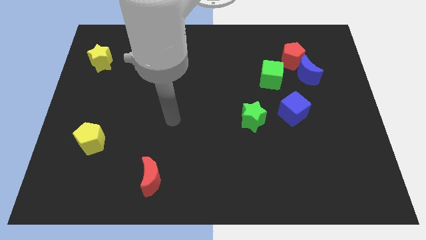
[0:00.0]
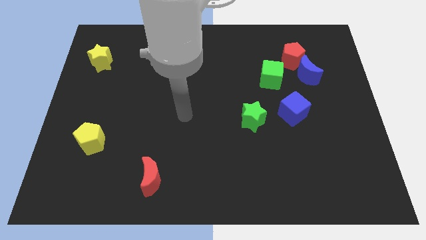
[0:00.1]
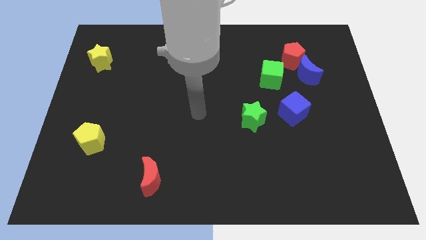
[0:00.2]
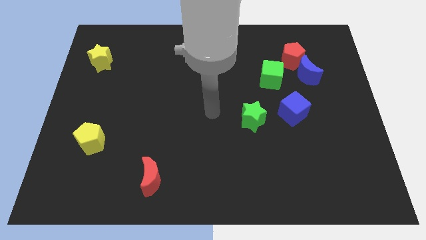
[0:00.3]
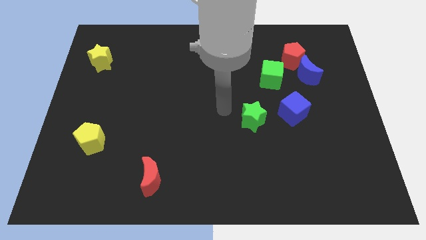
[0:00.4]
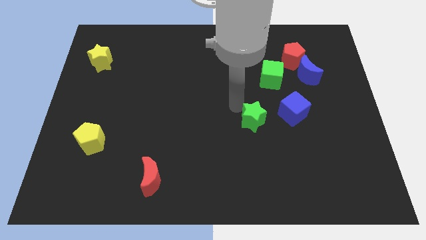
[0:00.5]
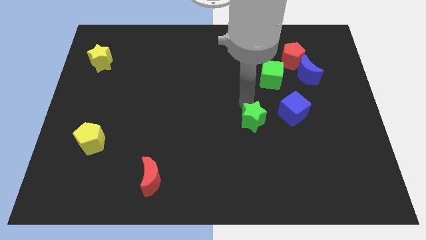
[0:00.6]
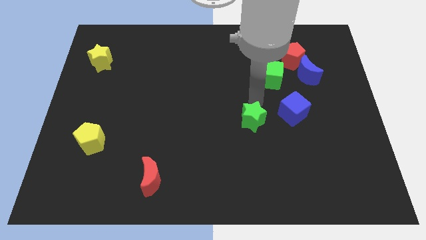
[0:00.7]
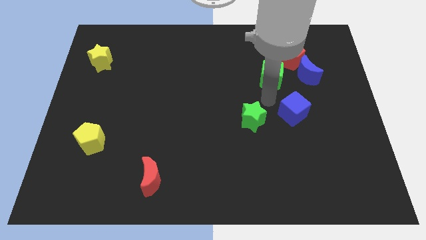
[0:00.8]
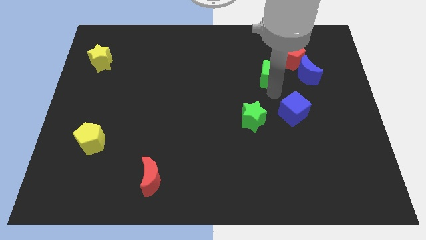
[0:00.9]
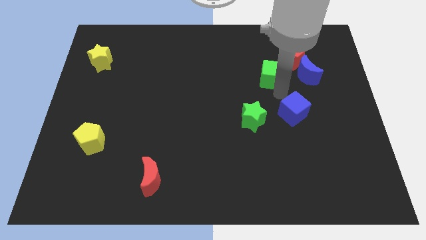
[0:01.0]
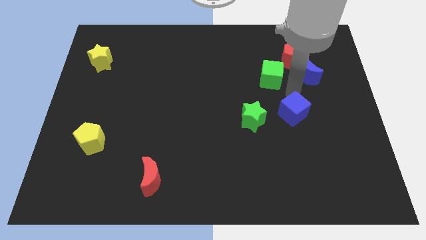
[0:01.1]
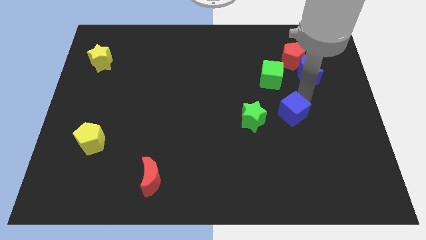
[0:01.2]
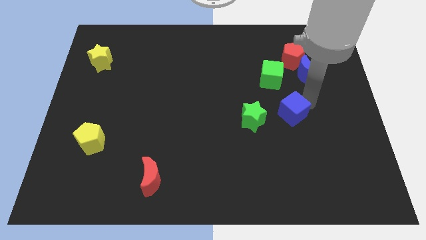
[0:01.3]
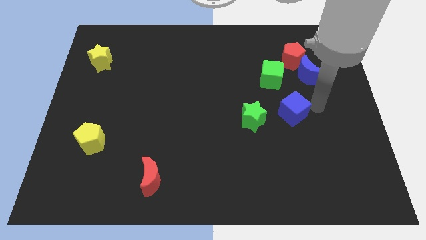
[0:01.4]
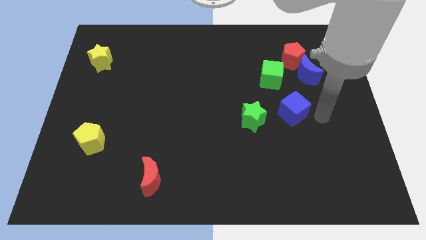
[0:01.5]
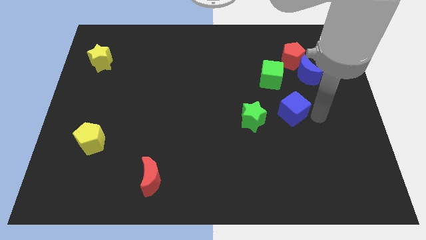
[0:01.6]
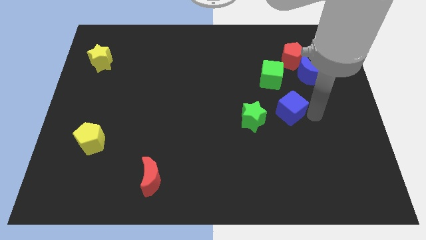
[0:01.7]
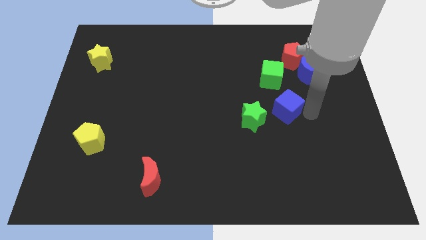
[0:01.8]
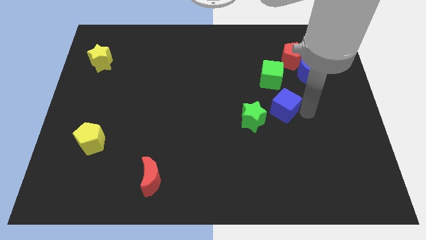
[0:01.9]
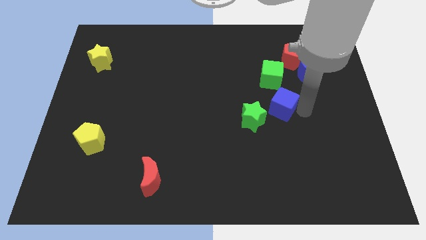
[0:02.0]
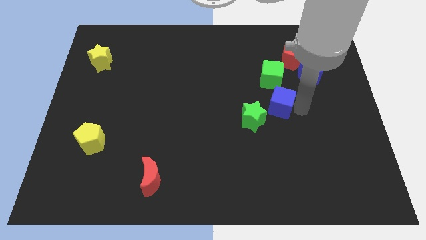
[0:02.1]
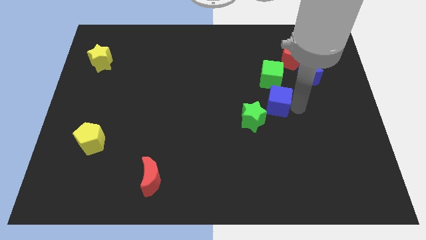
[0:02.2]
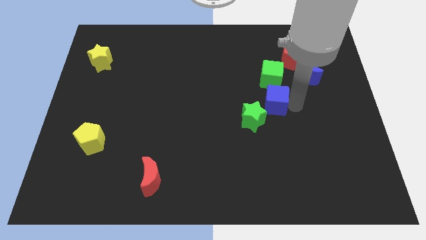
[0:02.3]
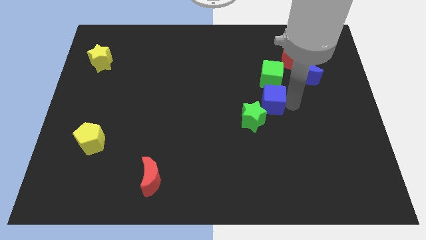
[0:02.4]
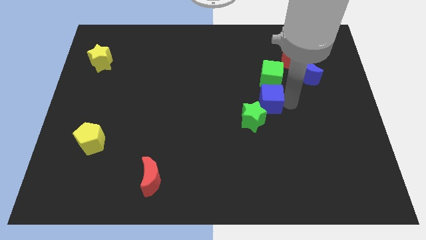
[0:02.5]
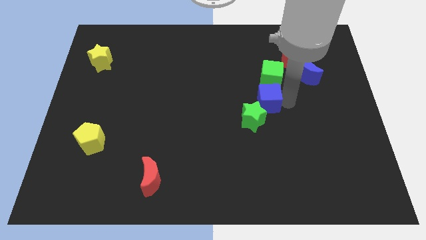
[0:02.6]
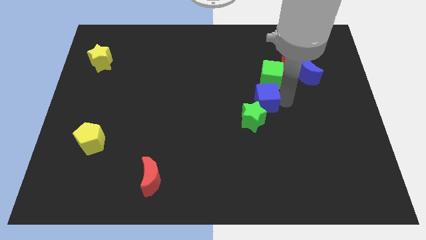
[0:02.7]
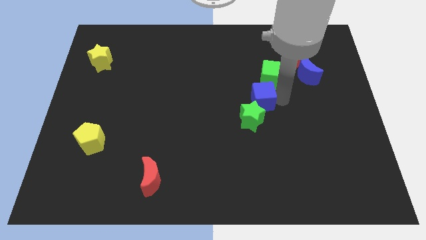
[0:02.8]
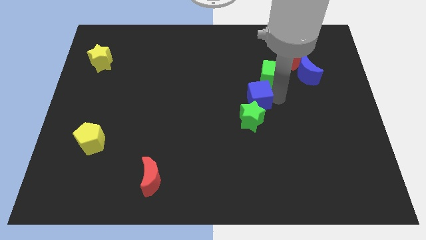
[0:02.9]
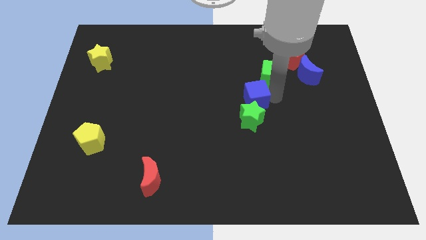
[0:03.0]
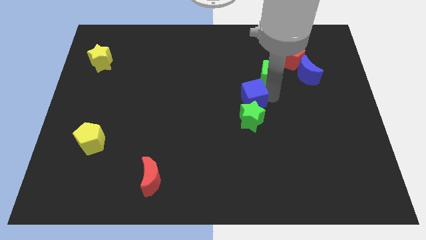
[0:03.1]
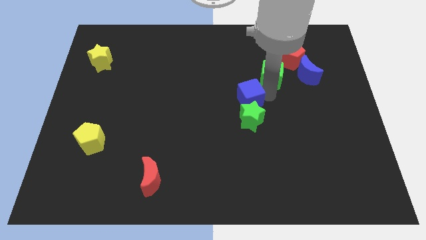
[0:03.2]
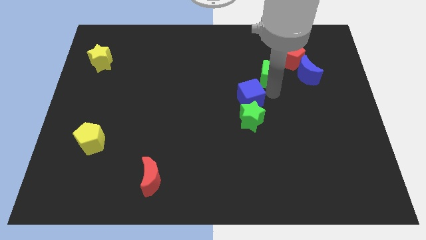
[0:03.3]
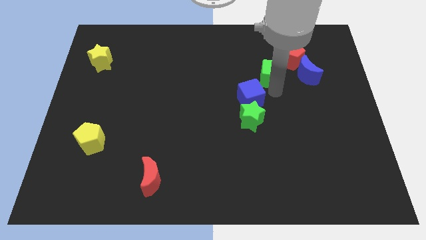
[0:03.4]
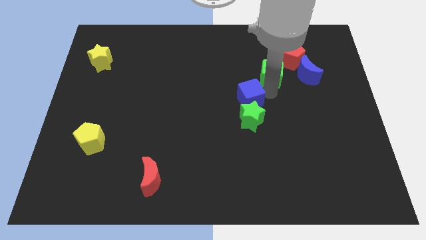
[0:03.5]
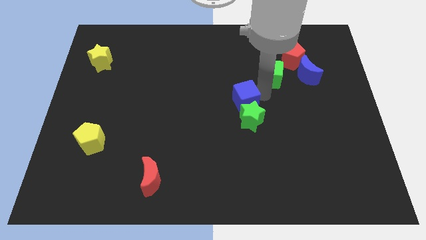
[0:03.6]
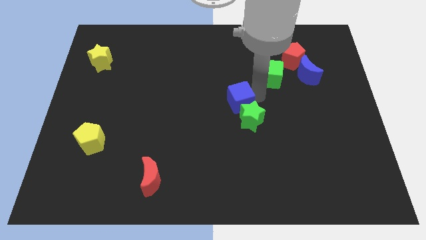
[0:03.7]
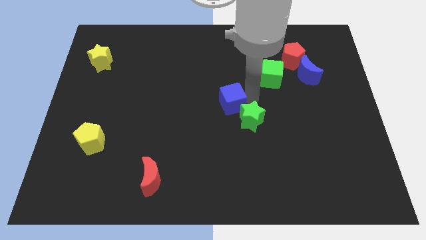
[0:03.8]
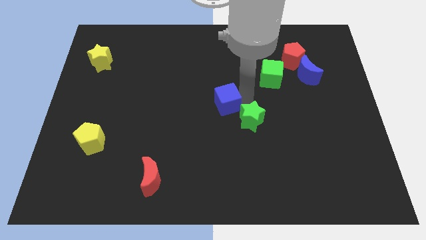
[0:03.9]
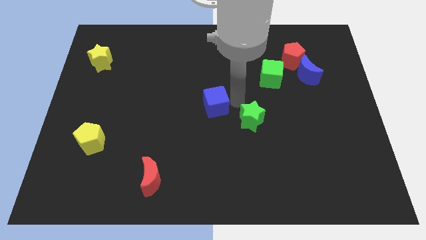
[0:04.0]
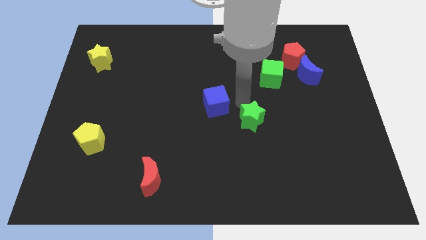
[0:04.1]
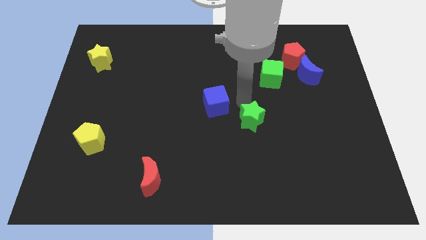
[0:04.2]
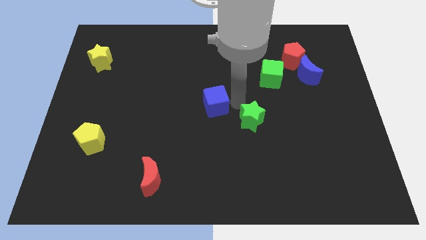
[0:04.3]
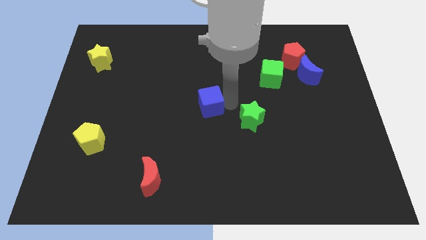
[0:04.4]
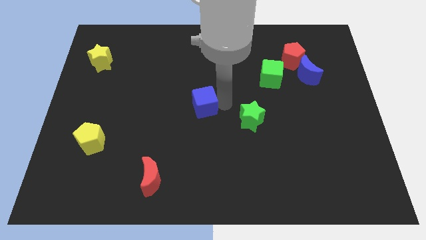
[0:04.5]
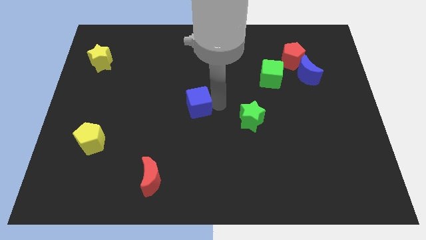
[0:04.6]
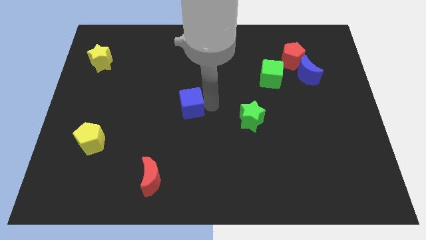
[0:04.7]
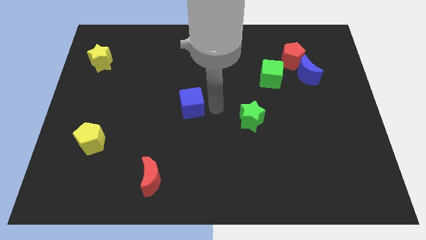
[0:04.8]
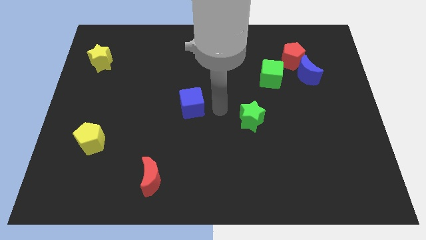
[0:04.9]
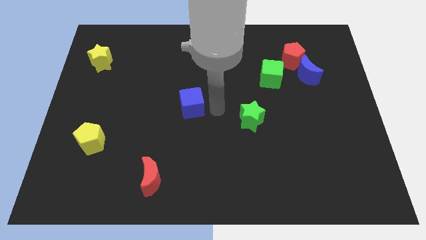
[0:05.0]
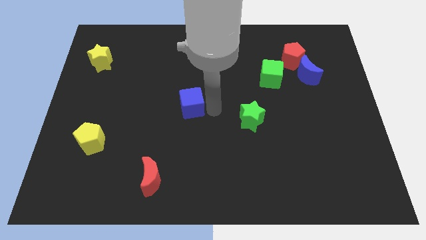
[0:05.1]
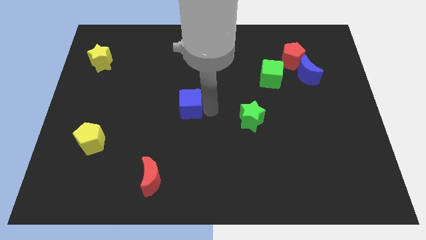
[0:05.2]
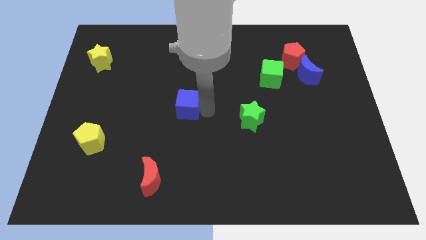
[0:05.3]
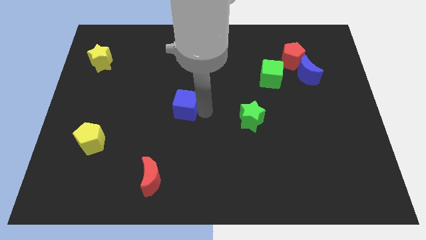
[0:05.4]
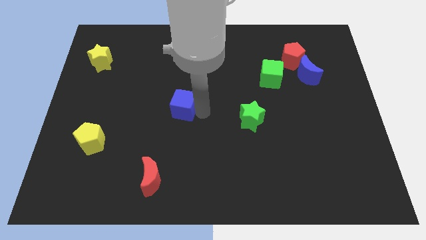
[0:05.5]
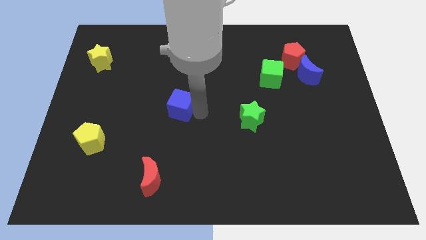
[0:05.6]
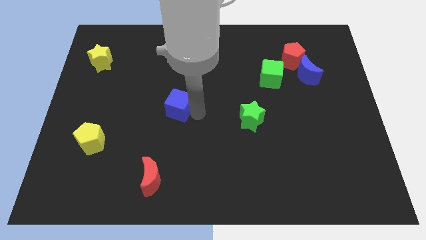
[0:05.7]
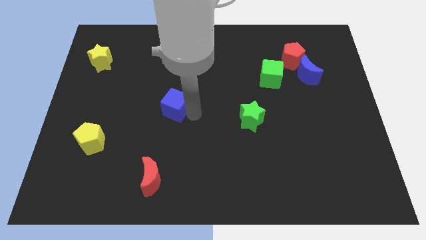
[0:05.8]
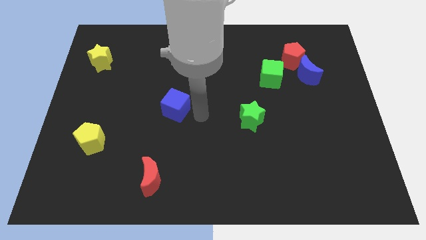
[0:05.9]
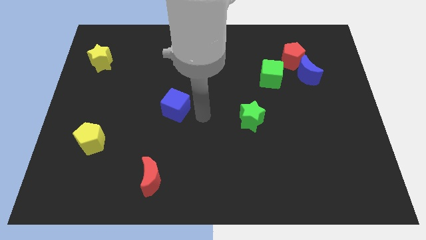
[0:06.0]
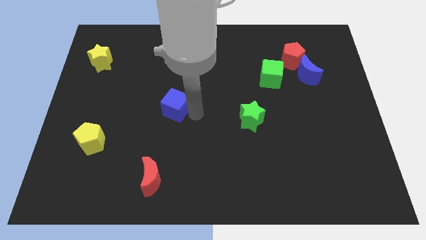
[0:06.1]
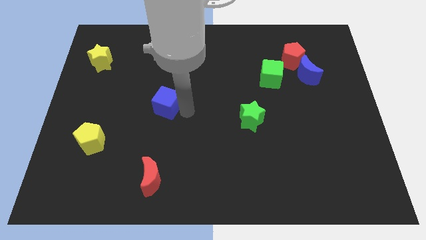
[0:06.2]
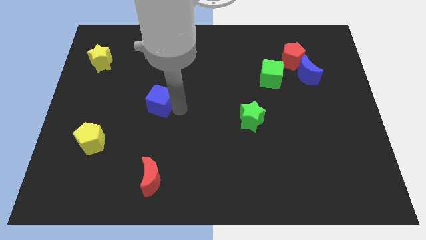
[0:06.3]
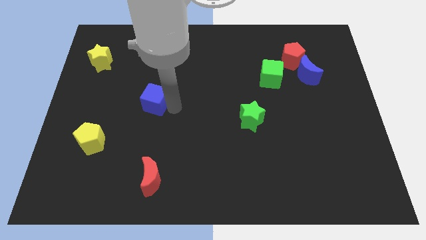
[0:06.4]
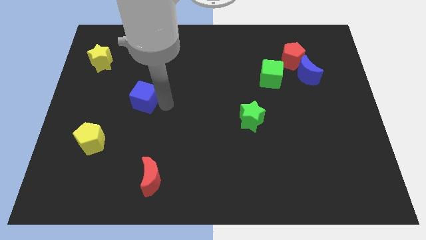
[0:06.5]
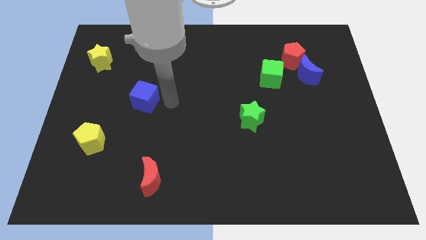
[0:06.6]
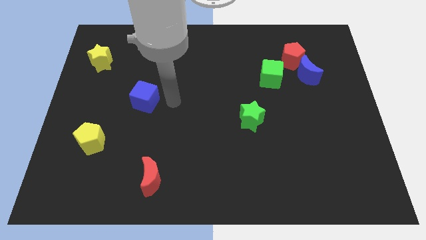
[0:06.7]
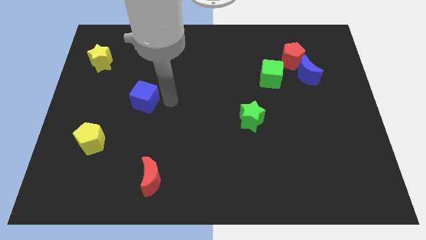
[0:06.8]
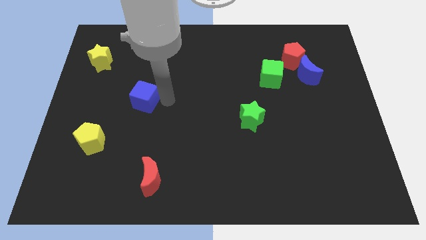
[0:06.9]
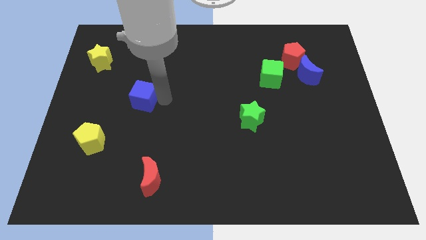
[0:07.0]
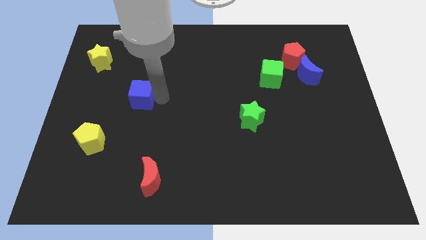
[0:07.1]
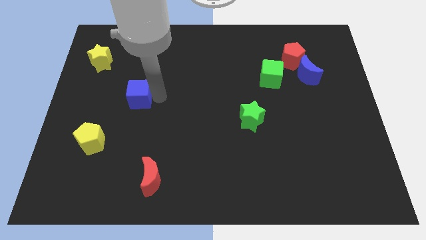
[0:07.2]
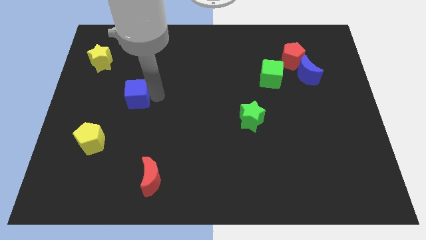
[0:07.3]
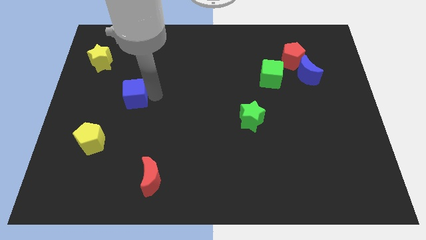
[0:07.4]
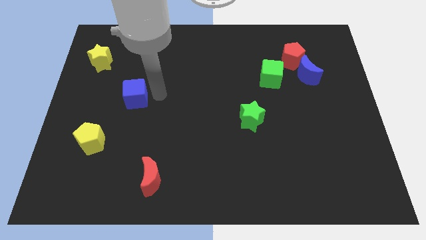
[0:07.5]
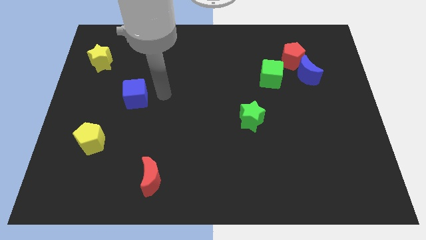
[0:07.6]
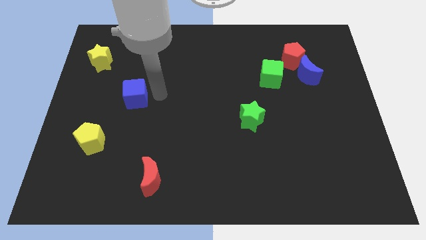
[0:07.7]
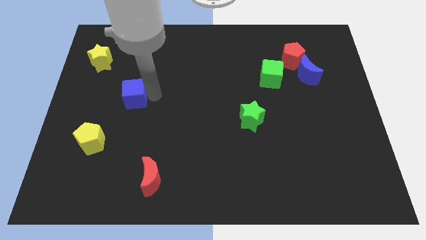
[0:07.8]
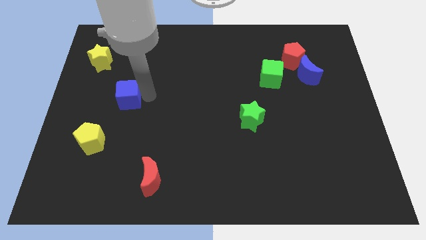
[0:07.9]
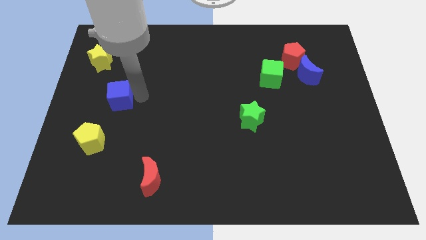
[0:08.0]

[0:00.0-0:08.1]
put the blue cube above the yellow pentagon
